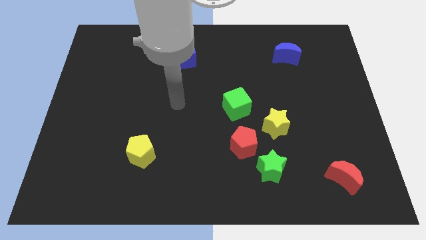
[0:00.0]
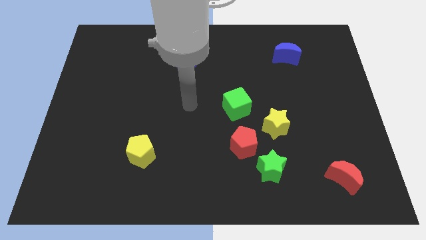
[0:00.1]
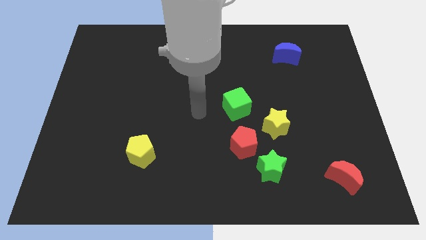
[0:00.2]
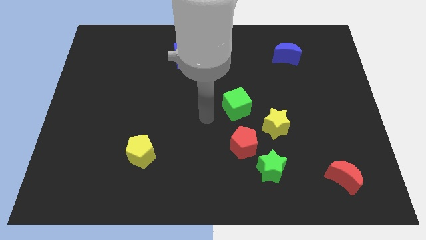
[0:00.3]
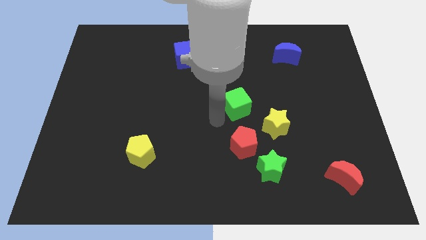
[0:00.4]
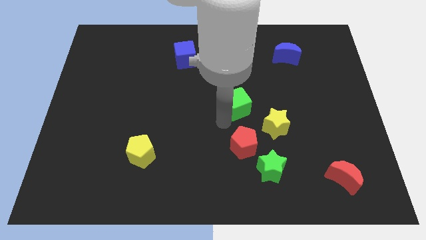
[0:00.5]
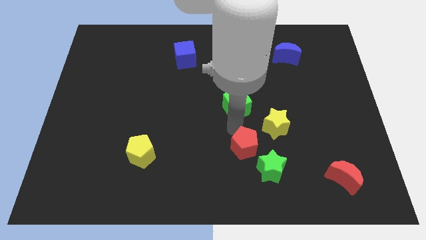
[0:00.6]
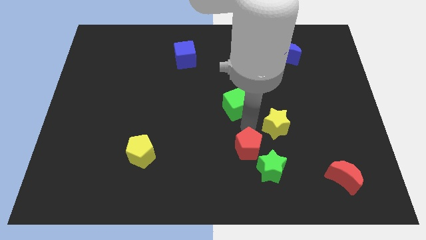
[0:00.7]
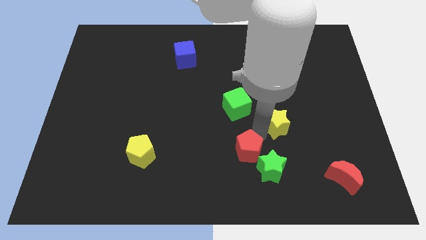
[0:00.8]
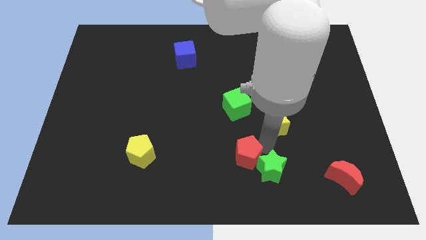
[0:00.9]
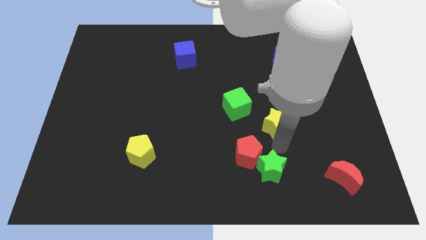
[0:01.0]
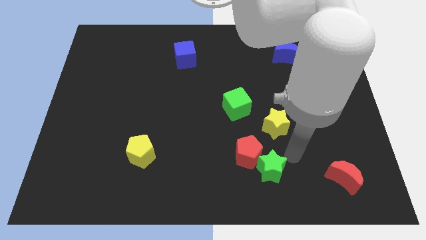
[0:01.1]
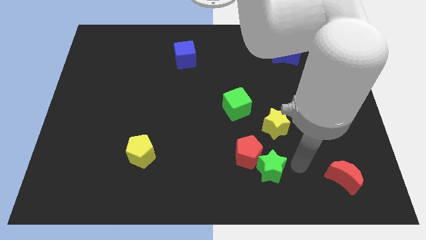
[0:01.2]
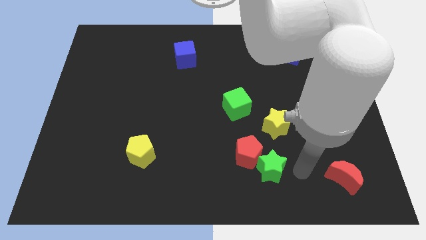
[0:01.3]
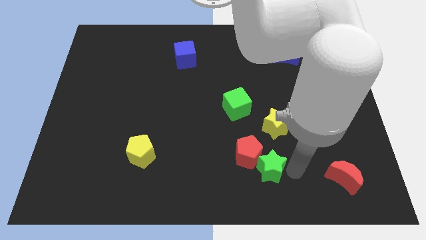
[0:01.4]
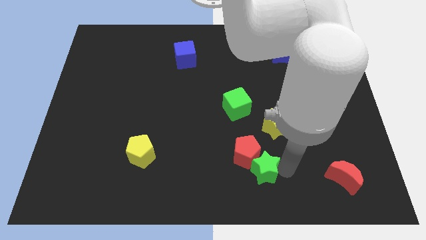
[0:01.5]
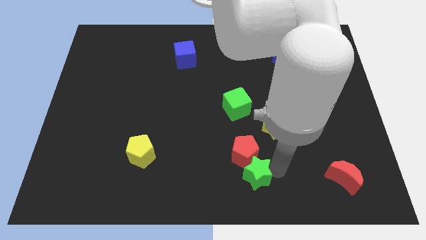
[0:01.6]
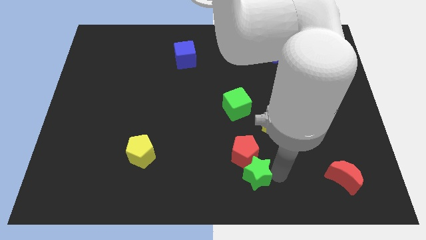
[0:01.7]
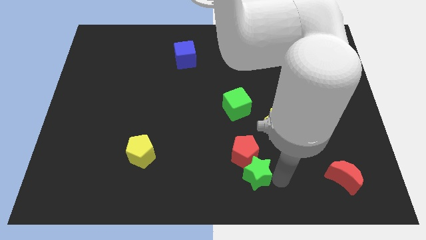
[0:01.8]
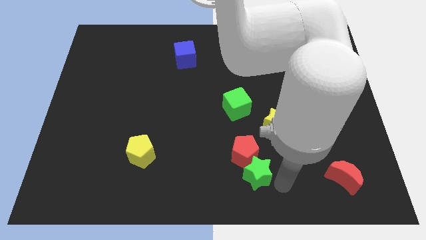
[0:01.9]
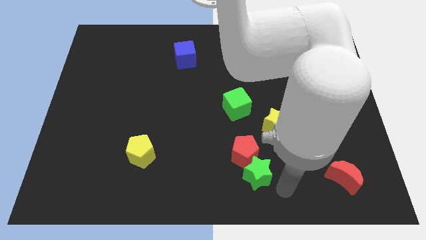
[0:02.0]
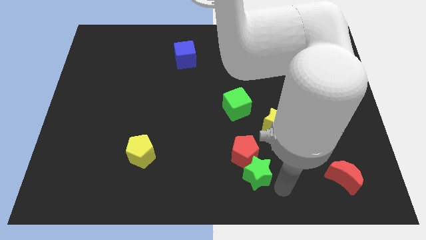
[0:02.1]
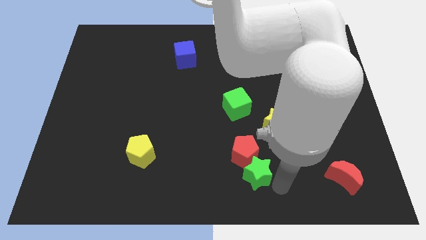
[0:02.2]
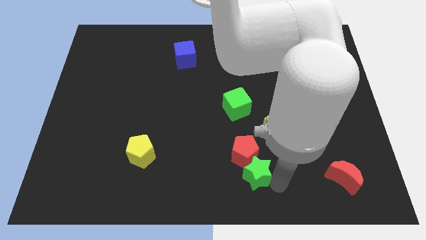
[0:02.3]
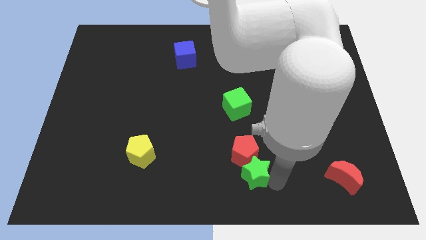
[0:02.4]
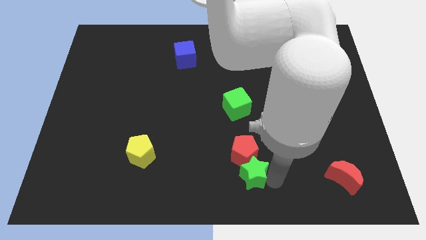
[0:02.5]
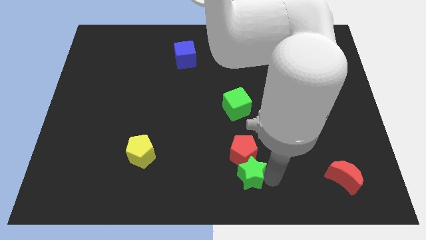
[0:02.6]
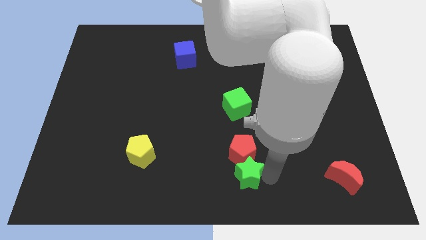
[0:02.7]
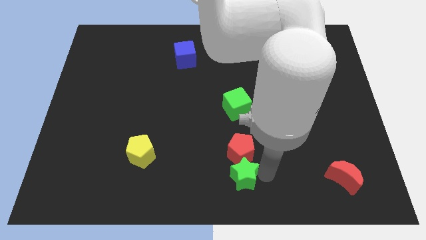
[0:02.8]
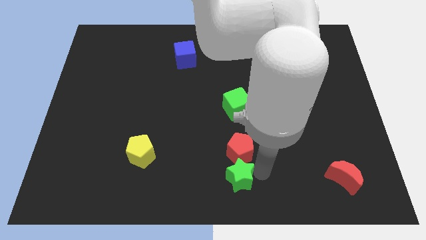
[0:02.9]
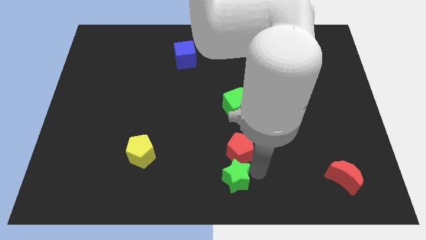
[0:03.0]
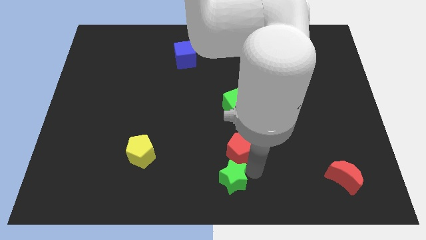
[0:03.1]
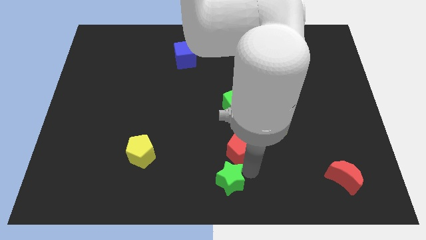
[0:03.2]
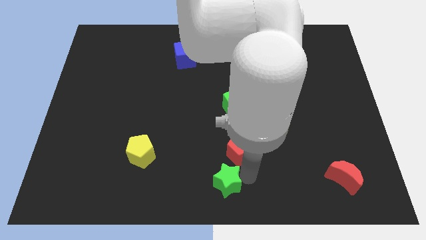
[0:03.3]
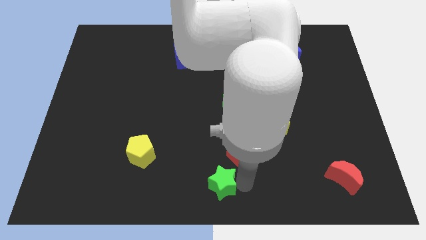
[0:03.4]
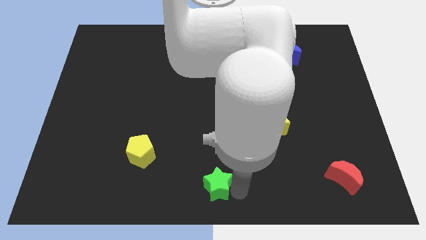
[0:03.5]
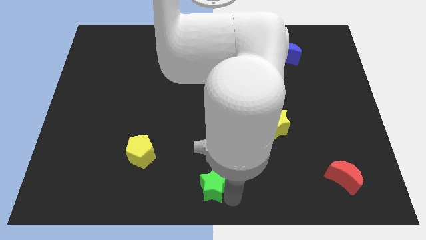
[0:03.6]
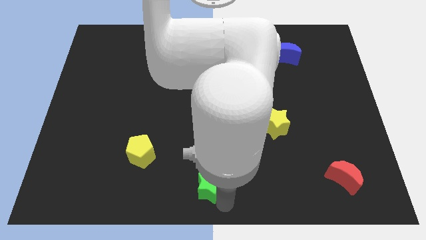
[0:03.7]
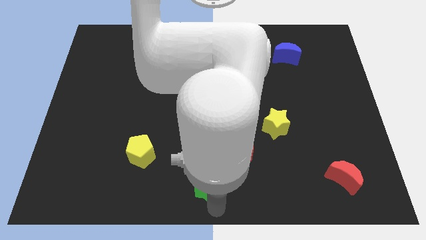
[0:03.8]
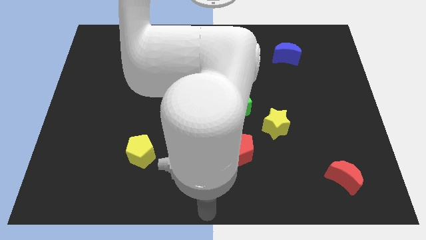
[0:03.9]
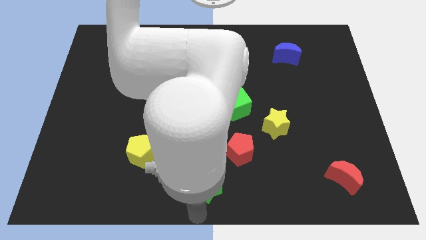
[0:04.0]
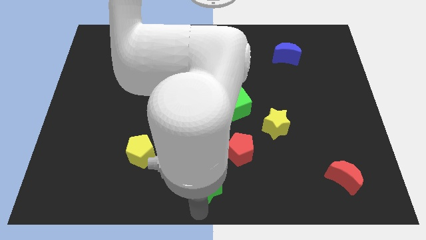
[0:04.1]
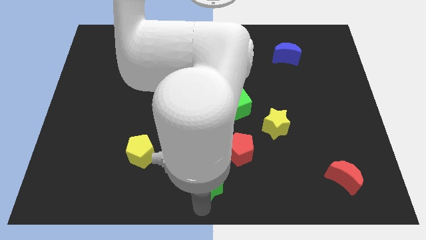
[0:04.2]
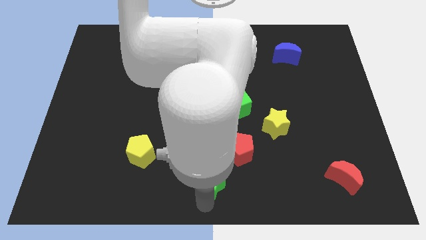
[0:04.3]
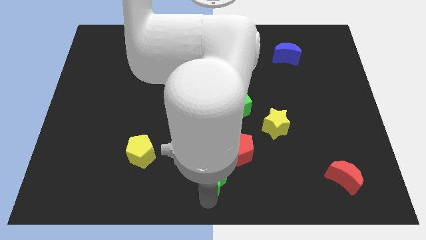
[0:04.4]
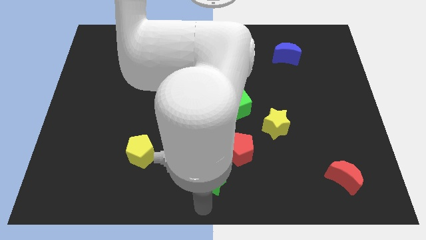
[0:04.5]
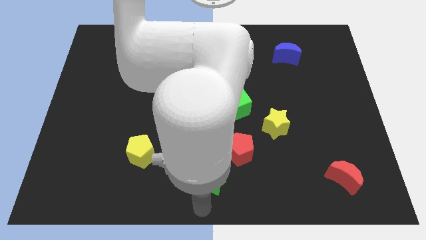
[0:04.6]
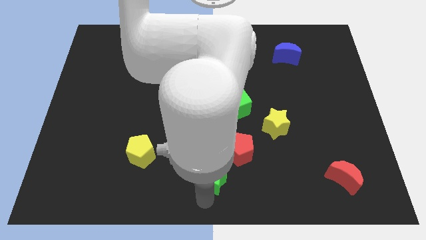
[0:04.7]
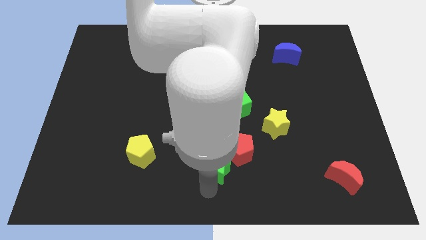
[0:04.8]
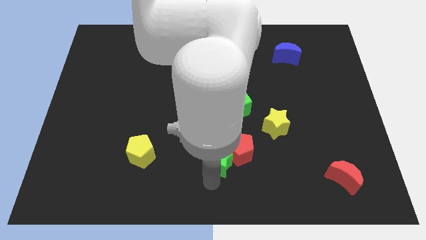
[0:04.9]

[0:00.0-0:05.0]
slide the green star a bit upwards and then left

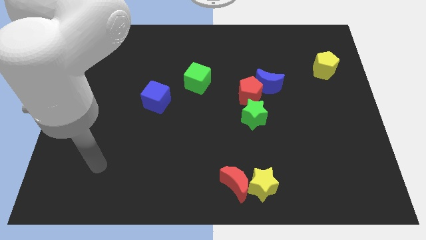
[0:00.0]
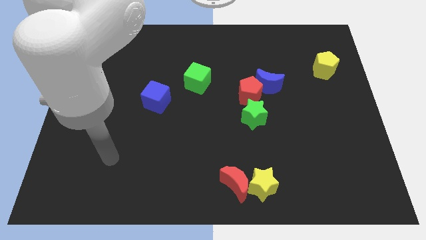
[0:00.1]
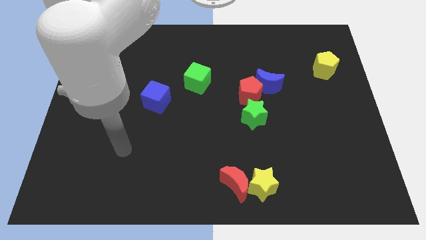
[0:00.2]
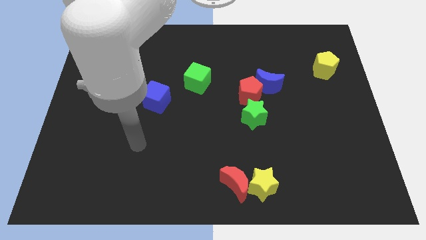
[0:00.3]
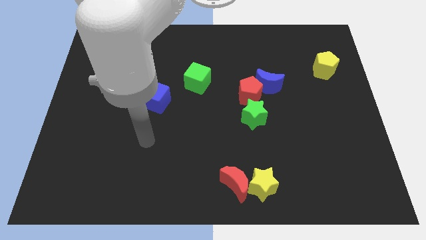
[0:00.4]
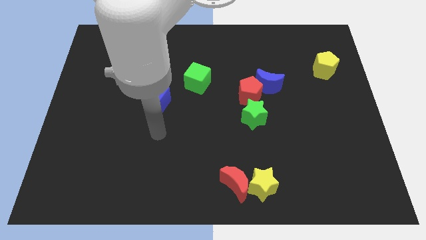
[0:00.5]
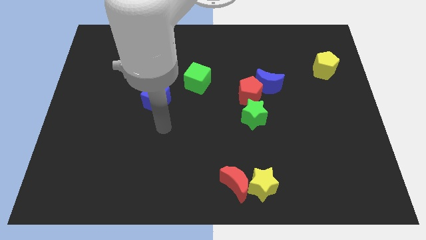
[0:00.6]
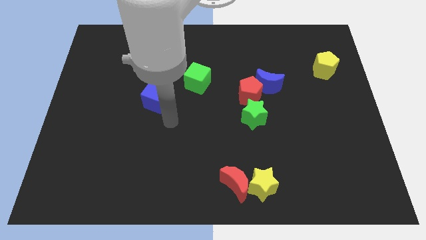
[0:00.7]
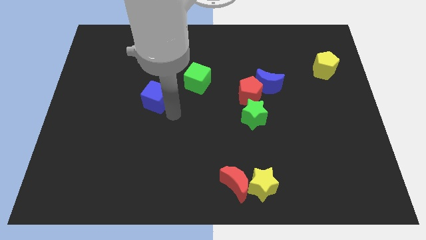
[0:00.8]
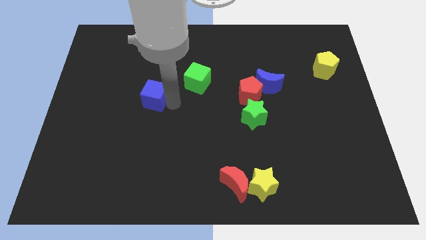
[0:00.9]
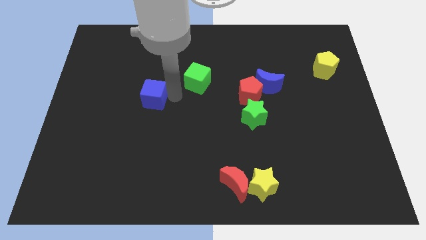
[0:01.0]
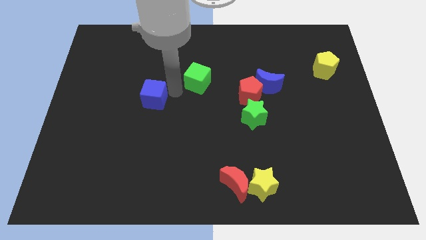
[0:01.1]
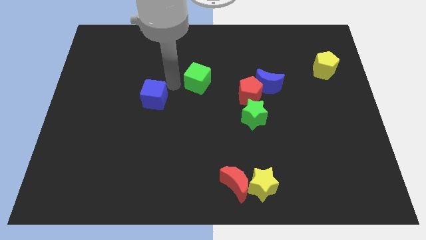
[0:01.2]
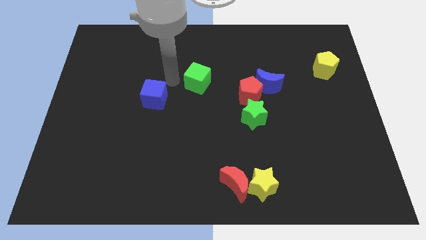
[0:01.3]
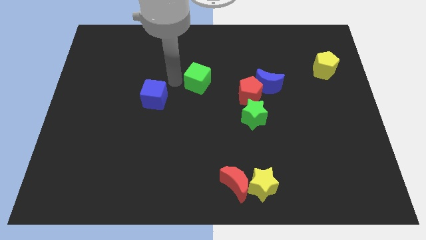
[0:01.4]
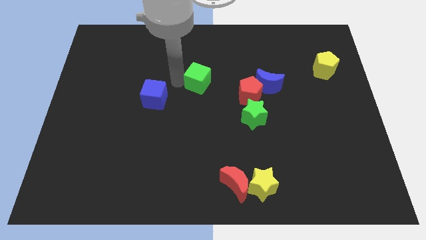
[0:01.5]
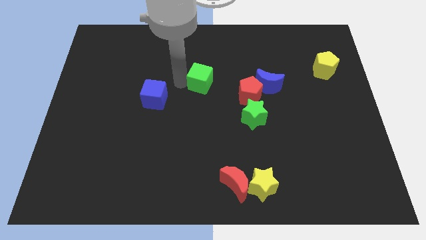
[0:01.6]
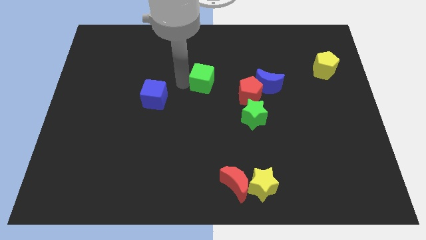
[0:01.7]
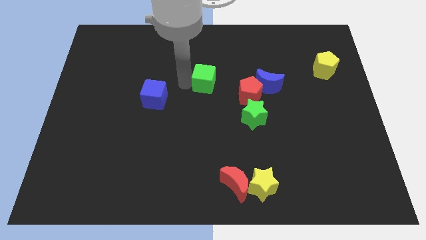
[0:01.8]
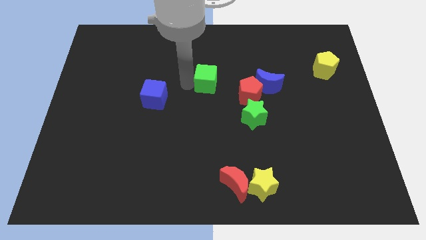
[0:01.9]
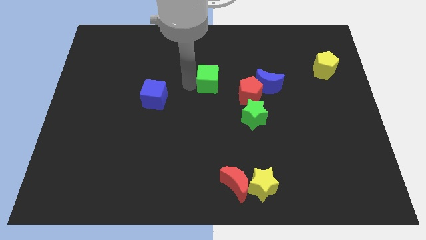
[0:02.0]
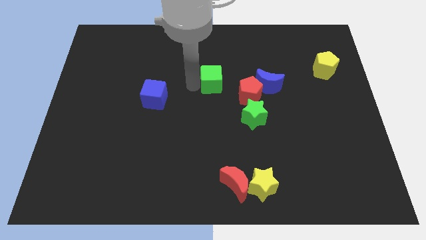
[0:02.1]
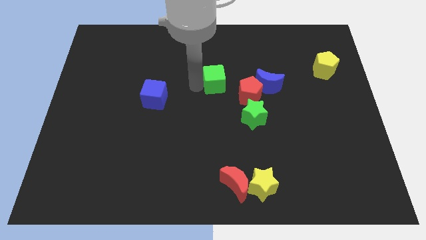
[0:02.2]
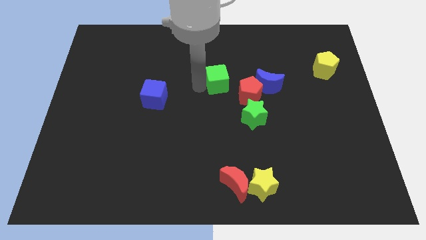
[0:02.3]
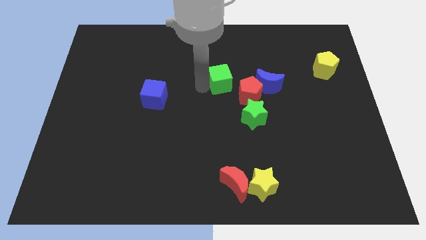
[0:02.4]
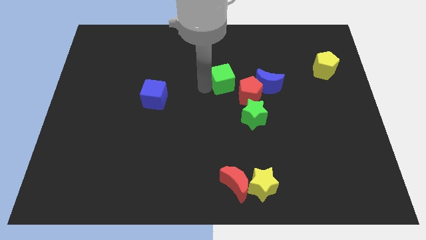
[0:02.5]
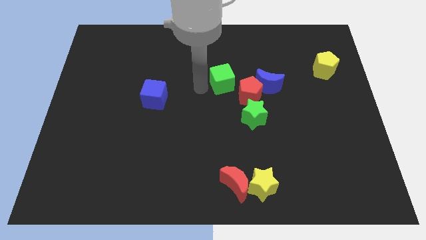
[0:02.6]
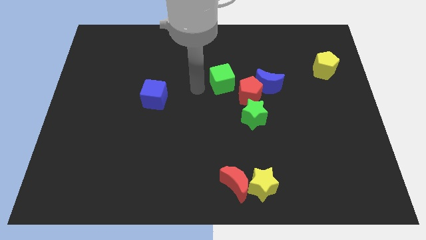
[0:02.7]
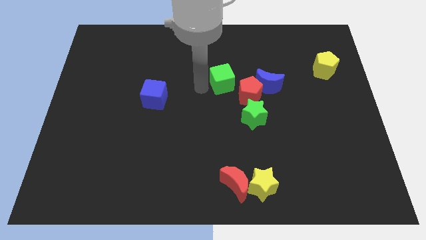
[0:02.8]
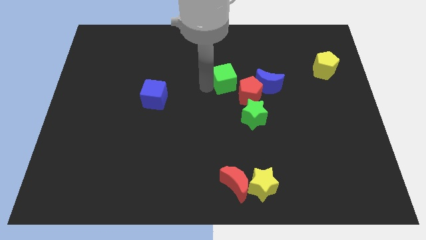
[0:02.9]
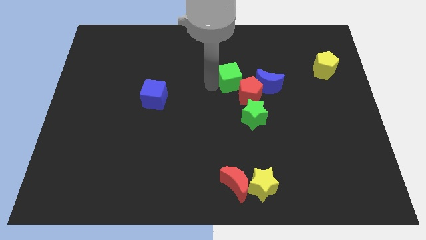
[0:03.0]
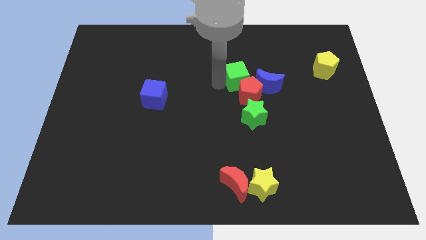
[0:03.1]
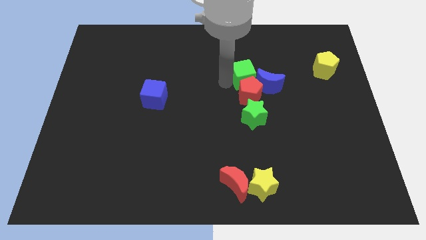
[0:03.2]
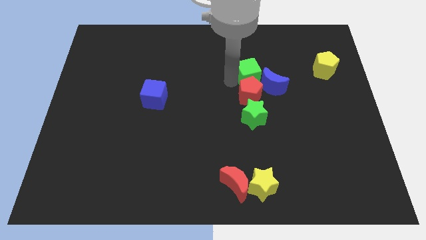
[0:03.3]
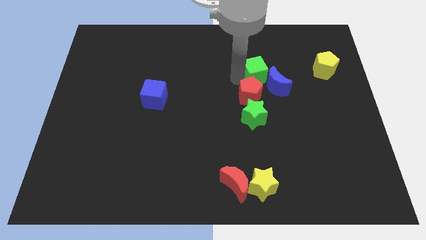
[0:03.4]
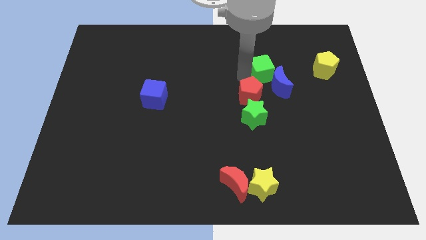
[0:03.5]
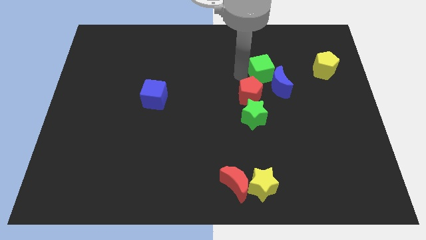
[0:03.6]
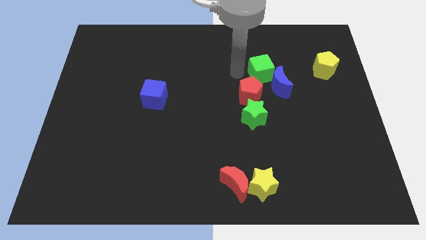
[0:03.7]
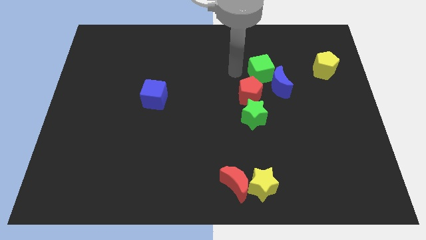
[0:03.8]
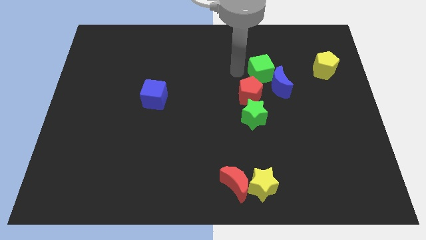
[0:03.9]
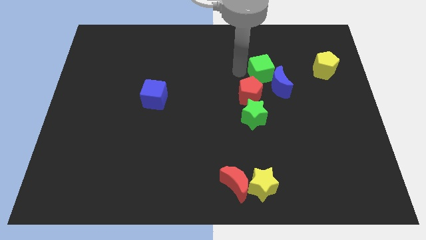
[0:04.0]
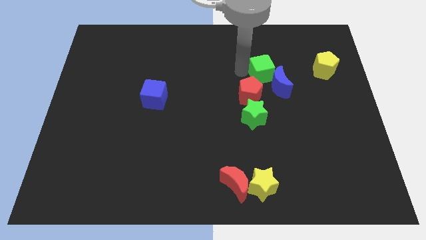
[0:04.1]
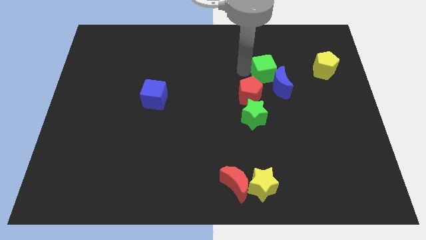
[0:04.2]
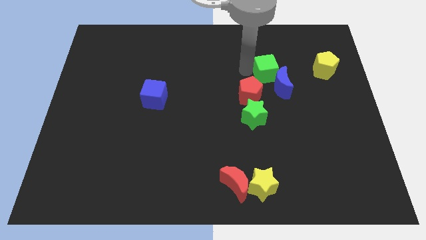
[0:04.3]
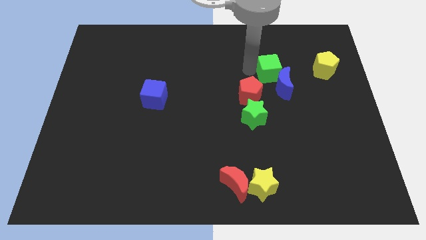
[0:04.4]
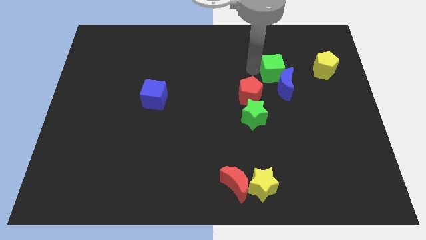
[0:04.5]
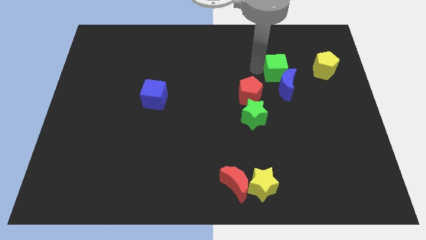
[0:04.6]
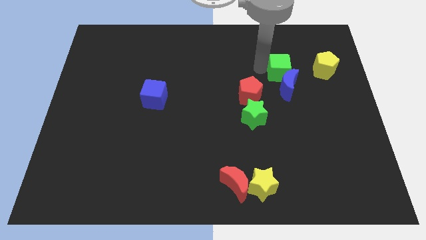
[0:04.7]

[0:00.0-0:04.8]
push the green cube to the right
